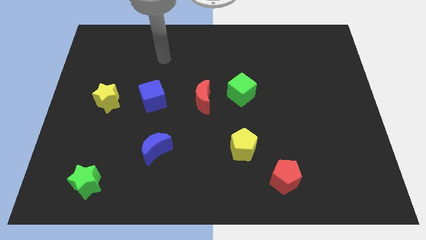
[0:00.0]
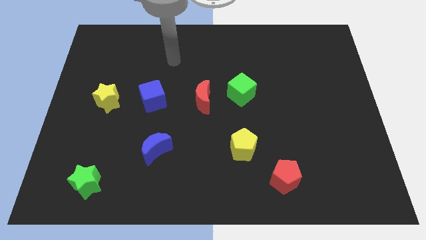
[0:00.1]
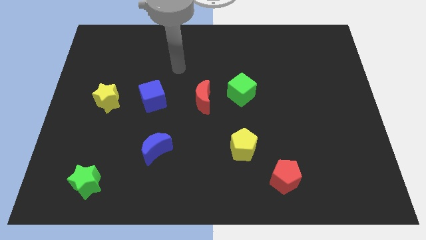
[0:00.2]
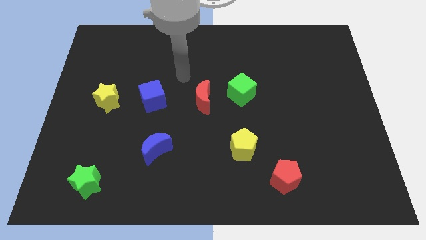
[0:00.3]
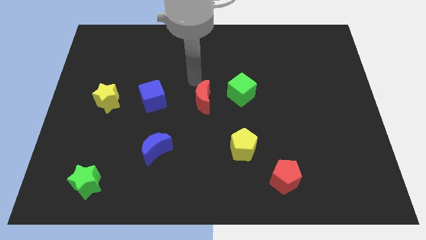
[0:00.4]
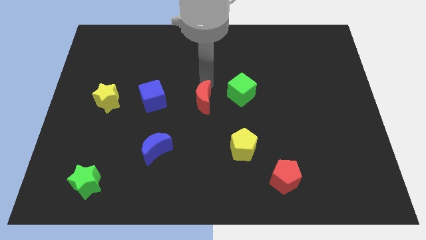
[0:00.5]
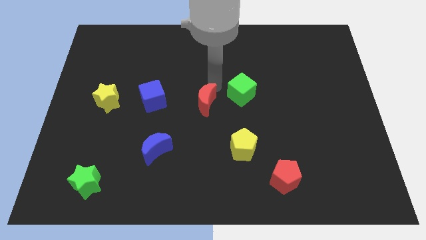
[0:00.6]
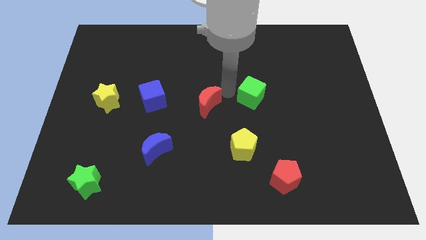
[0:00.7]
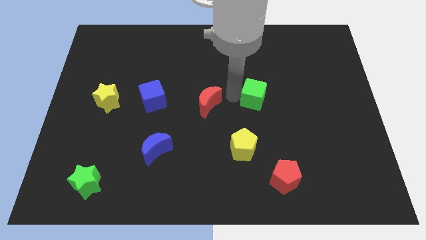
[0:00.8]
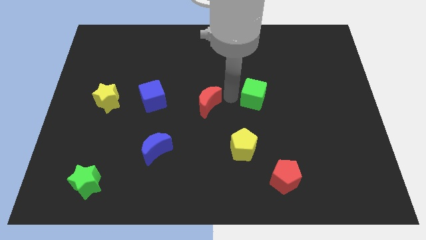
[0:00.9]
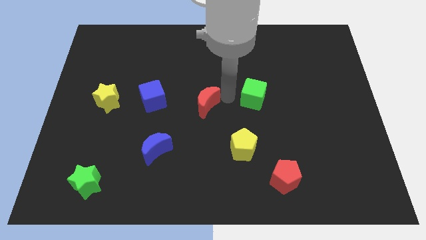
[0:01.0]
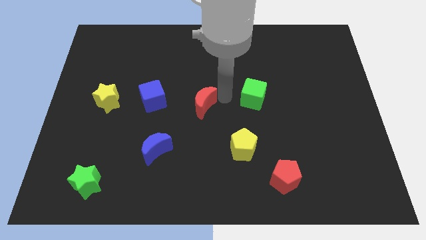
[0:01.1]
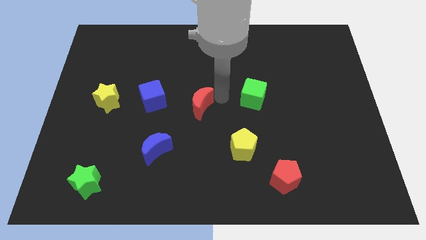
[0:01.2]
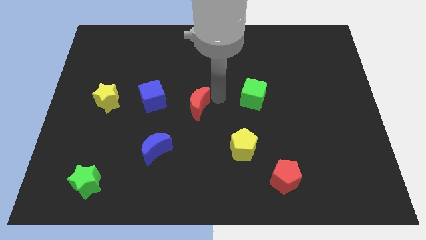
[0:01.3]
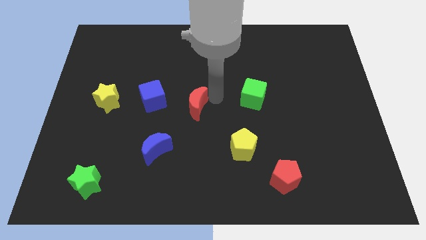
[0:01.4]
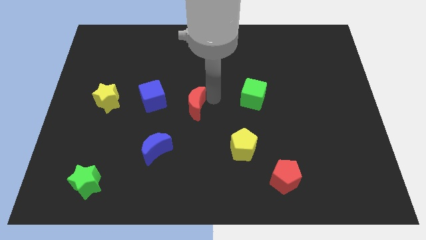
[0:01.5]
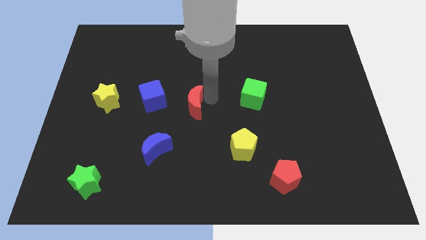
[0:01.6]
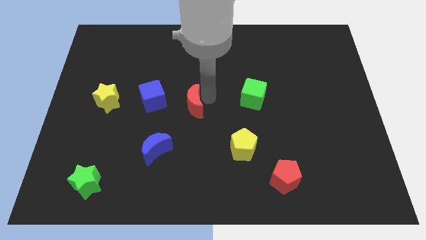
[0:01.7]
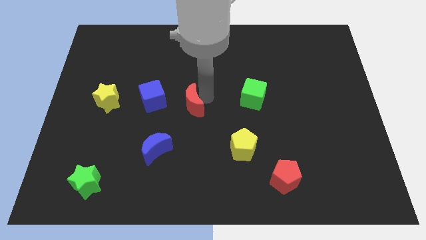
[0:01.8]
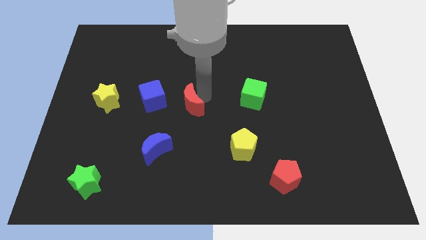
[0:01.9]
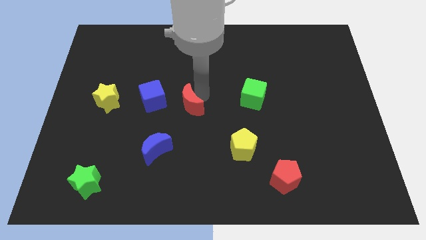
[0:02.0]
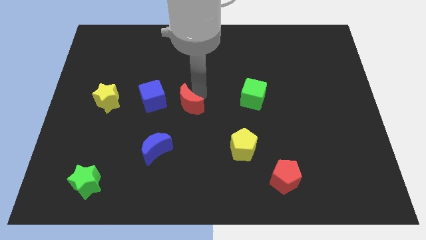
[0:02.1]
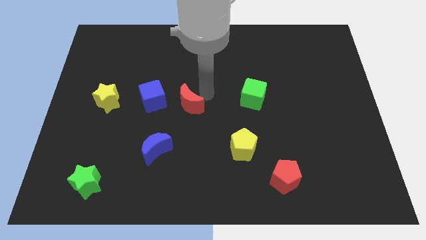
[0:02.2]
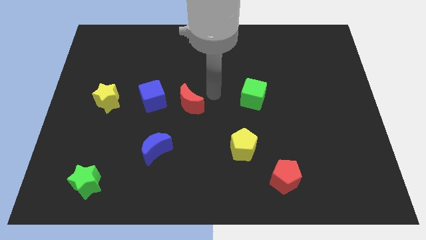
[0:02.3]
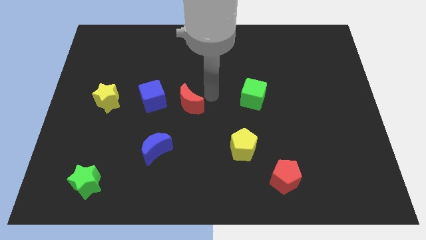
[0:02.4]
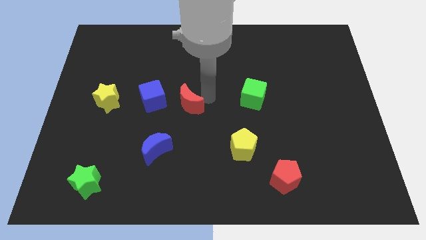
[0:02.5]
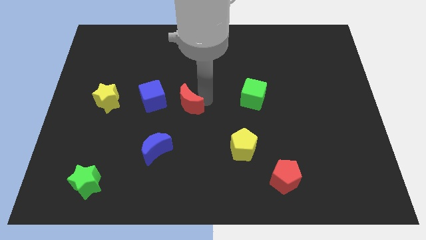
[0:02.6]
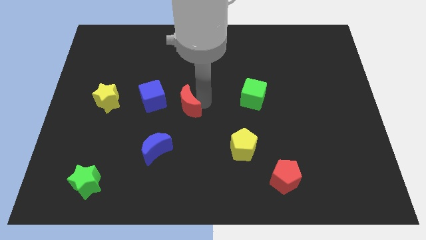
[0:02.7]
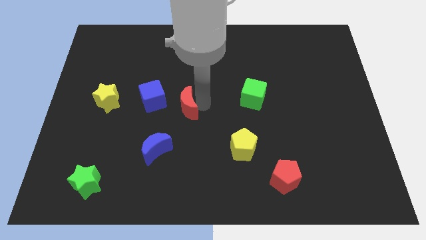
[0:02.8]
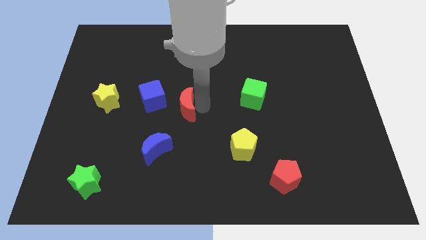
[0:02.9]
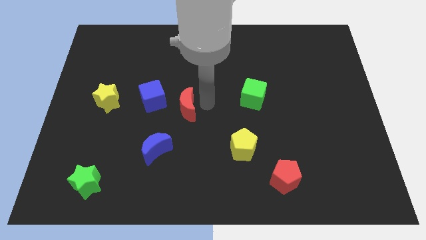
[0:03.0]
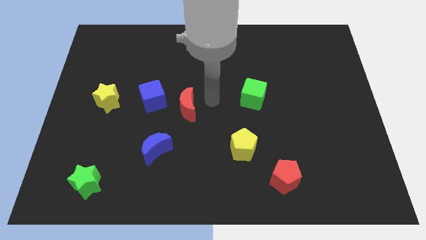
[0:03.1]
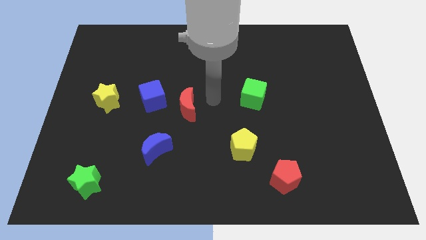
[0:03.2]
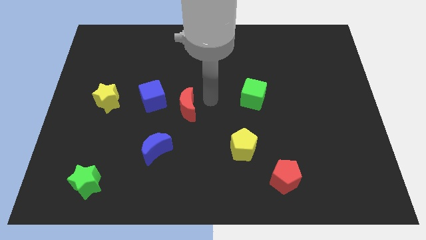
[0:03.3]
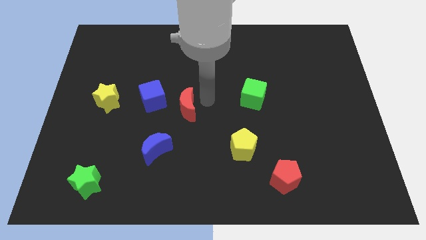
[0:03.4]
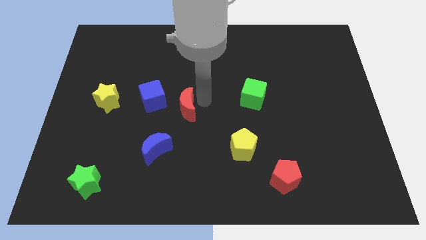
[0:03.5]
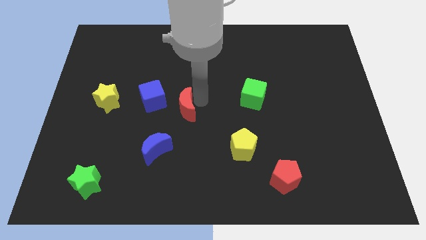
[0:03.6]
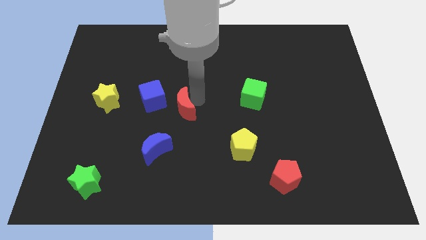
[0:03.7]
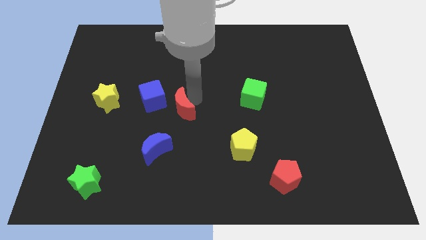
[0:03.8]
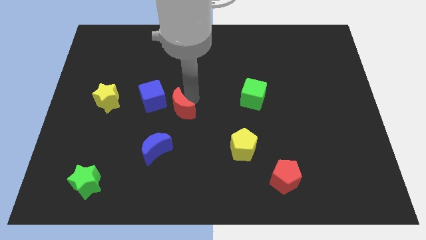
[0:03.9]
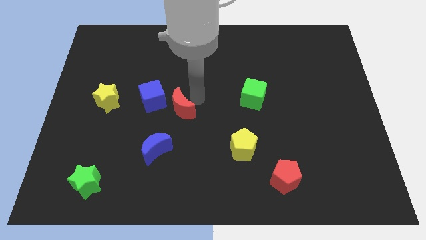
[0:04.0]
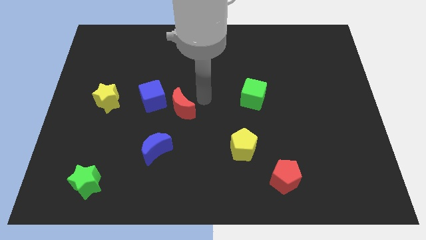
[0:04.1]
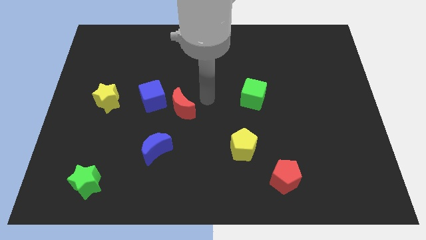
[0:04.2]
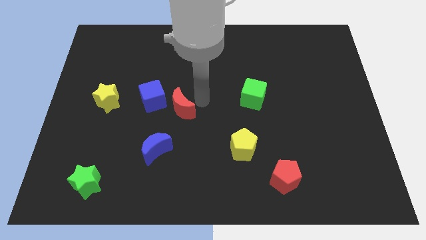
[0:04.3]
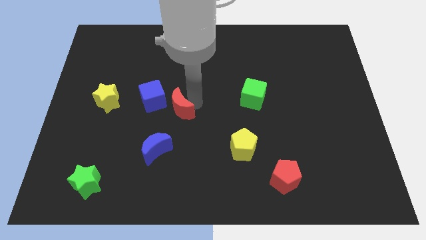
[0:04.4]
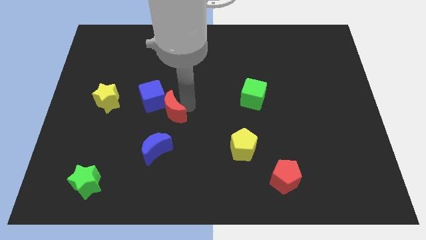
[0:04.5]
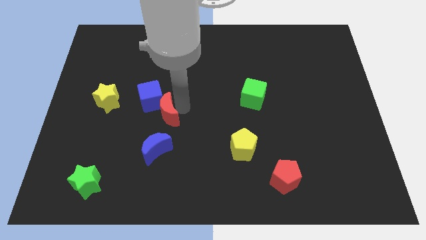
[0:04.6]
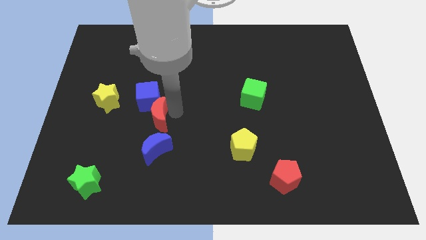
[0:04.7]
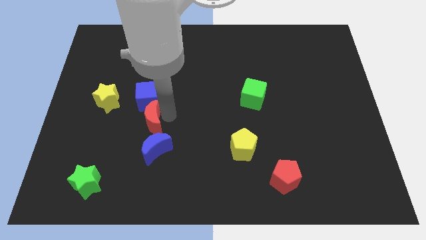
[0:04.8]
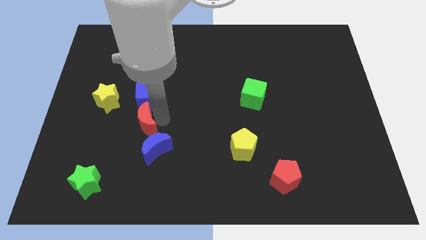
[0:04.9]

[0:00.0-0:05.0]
push the red moon to the bottom right of the yellow star

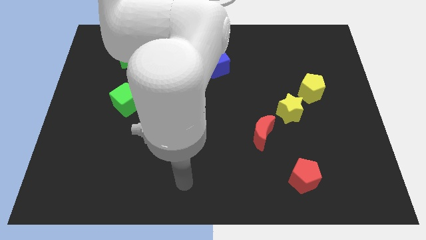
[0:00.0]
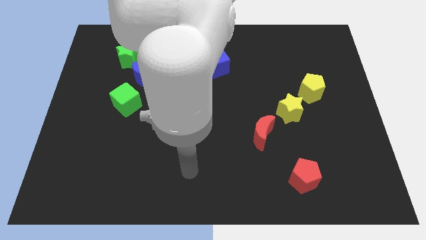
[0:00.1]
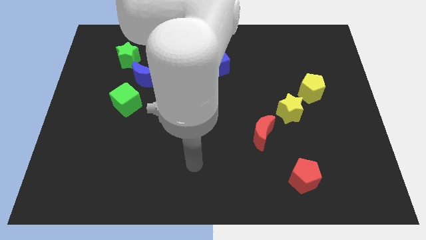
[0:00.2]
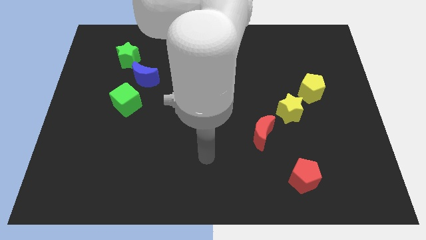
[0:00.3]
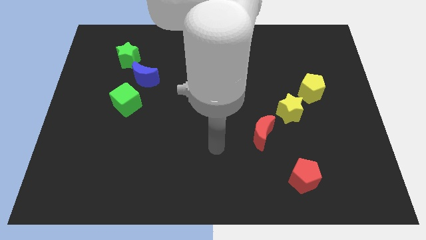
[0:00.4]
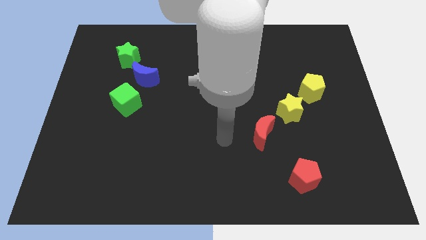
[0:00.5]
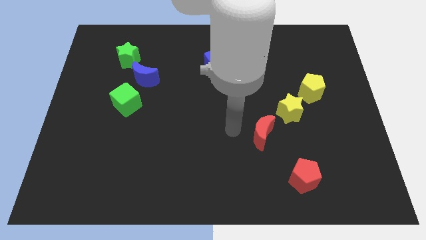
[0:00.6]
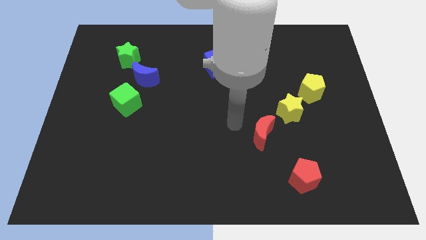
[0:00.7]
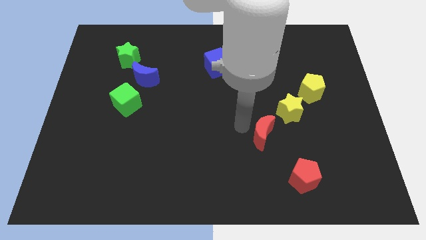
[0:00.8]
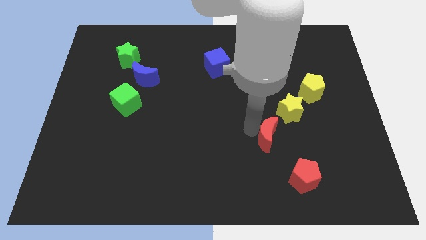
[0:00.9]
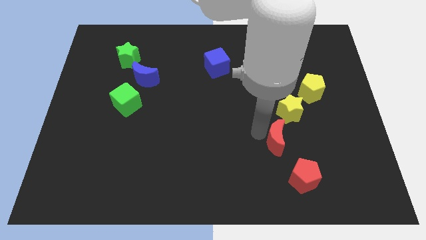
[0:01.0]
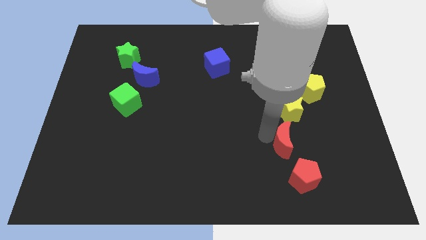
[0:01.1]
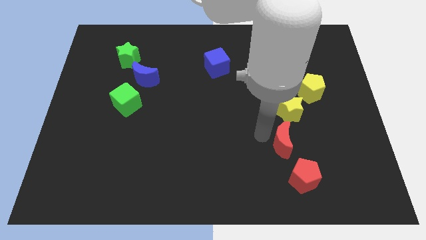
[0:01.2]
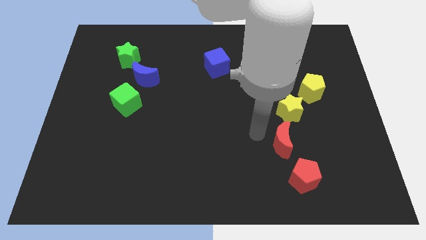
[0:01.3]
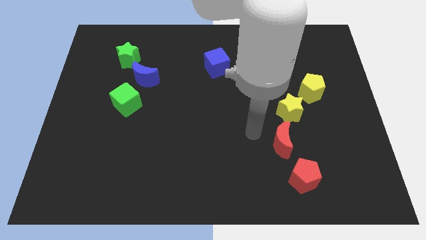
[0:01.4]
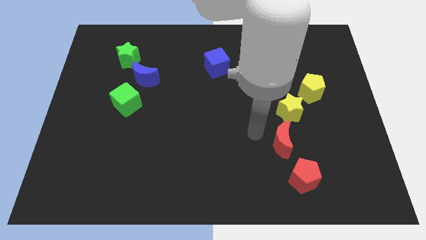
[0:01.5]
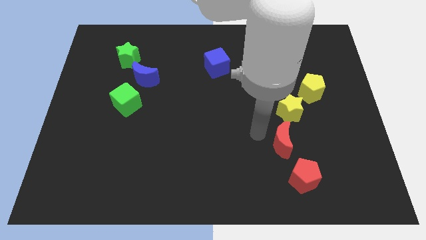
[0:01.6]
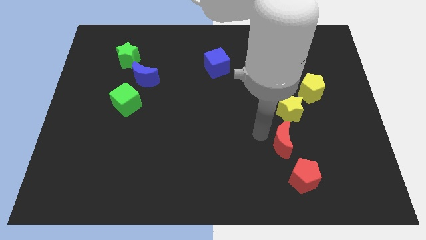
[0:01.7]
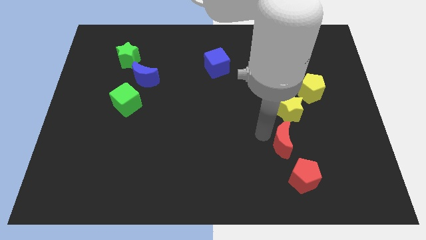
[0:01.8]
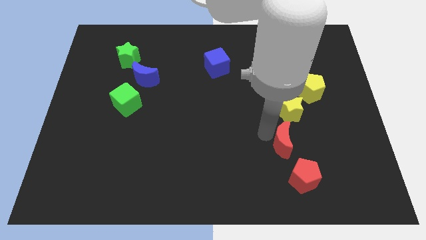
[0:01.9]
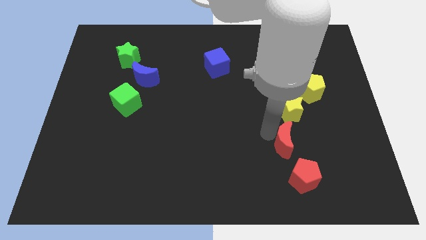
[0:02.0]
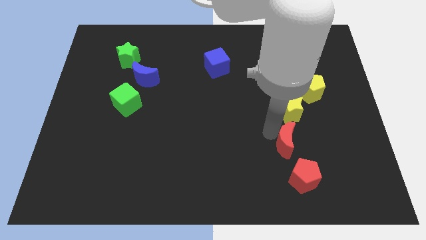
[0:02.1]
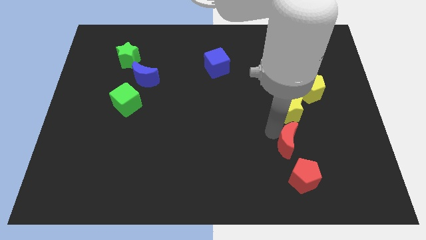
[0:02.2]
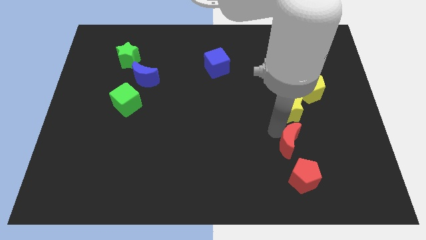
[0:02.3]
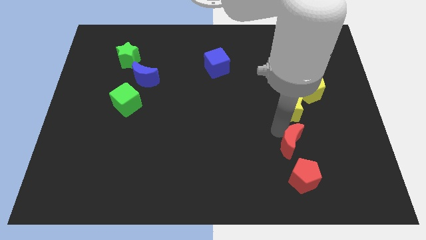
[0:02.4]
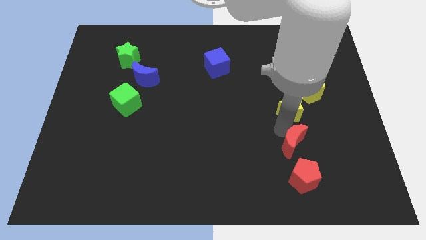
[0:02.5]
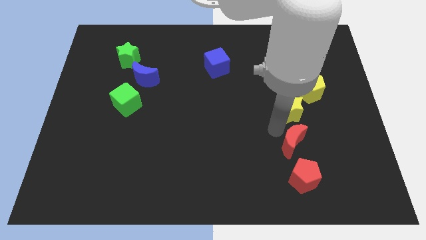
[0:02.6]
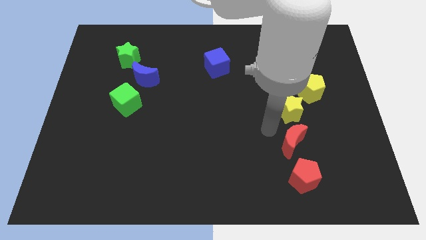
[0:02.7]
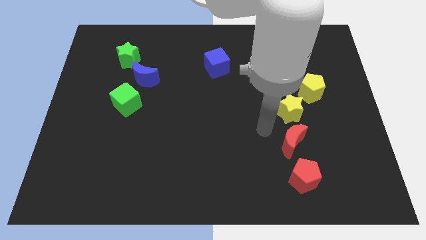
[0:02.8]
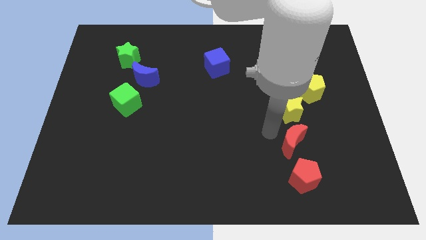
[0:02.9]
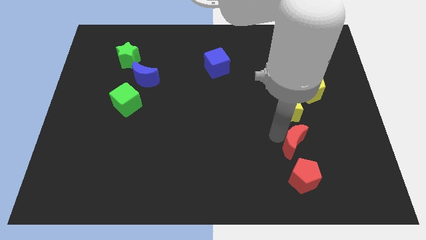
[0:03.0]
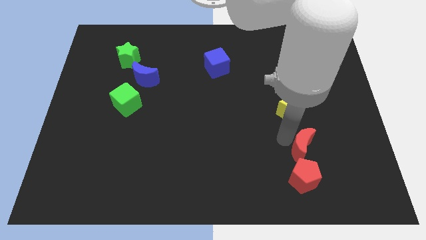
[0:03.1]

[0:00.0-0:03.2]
move the red moon to the top right side of the red pentagon
